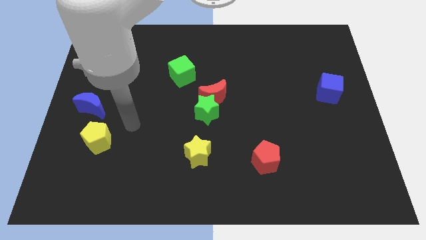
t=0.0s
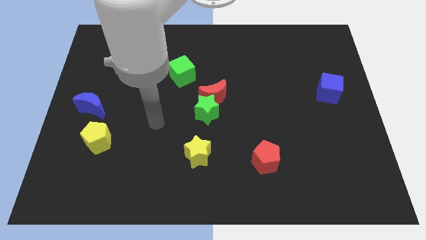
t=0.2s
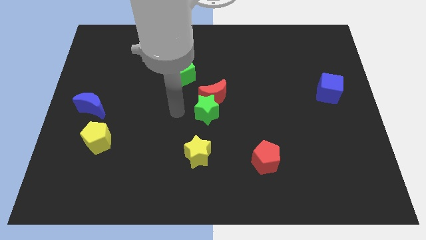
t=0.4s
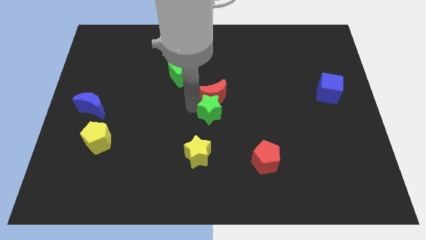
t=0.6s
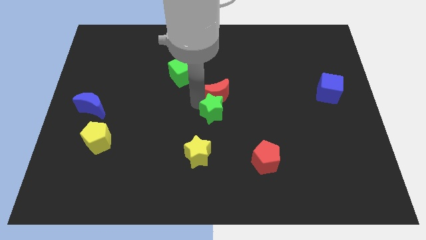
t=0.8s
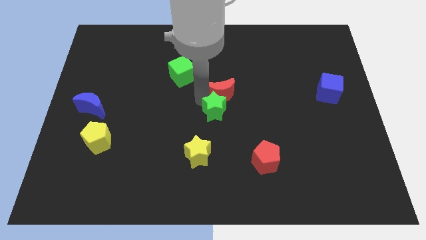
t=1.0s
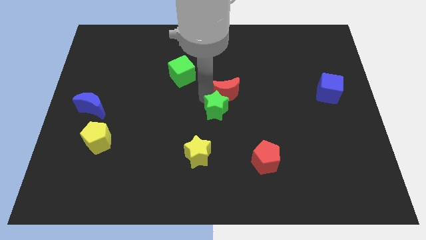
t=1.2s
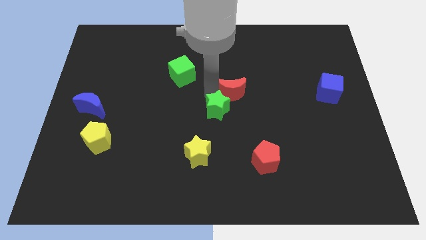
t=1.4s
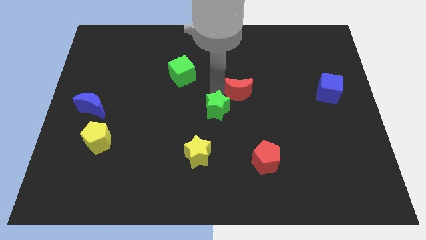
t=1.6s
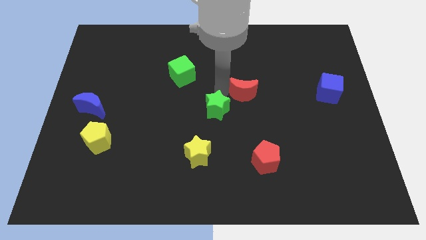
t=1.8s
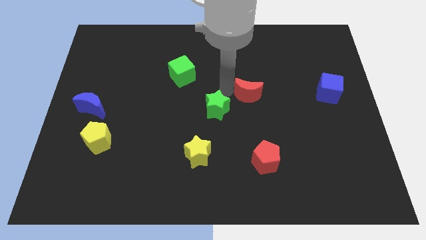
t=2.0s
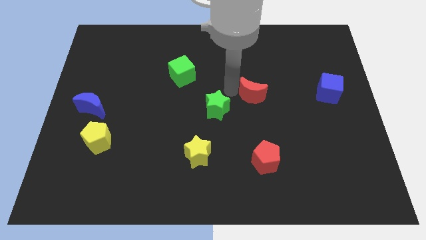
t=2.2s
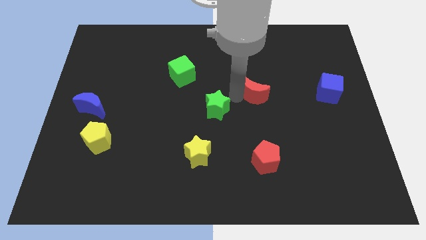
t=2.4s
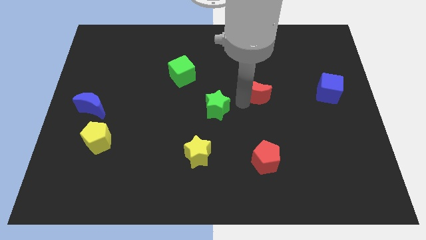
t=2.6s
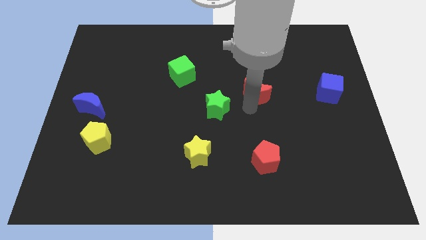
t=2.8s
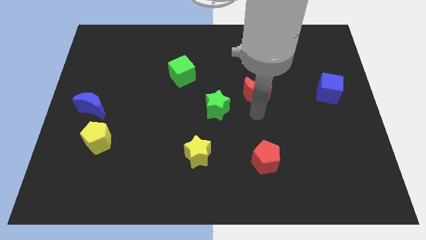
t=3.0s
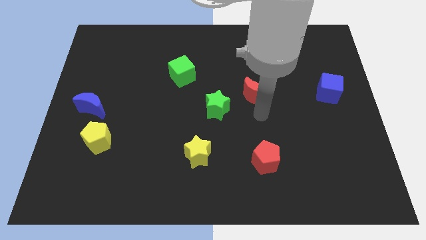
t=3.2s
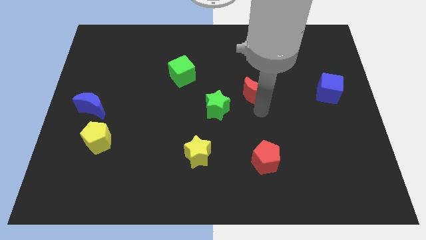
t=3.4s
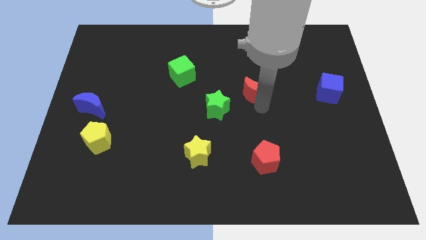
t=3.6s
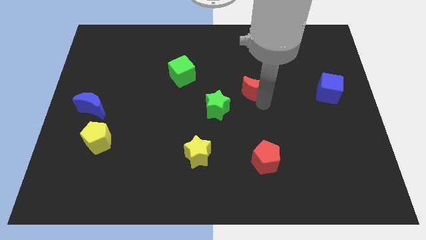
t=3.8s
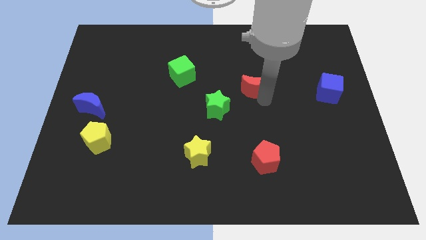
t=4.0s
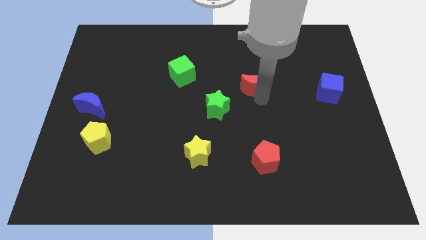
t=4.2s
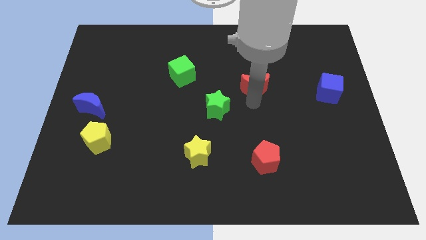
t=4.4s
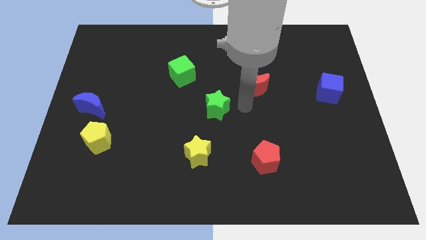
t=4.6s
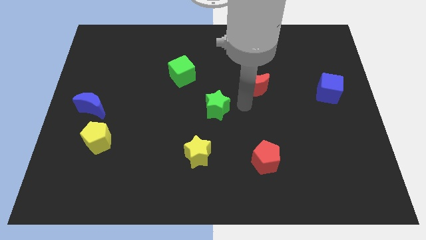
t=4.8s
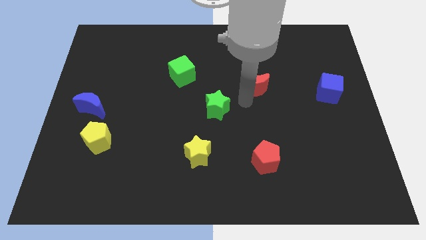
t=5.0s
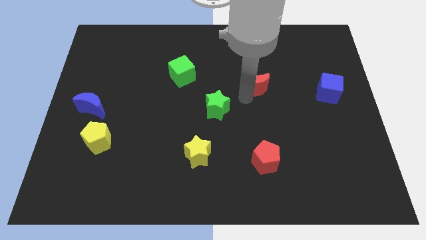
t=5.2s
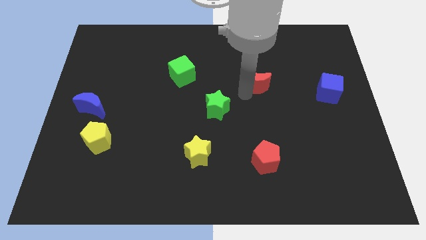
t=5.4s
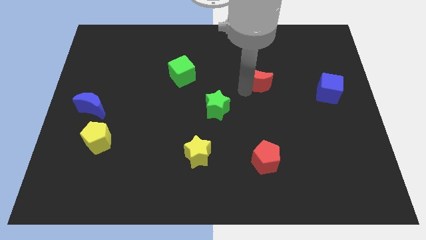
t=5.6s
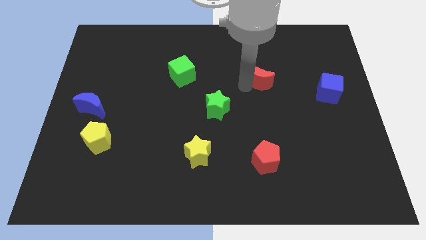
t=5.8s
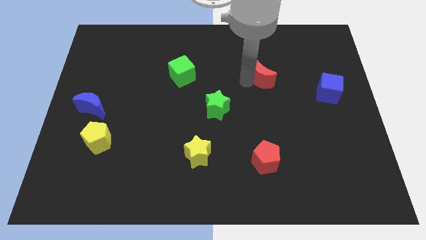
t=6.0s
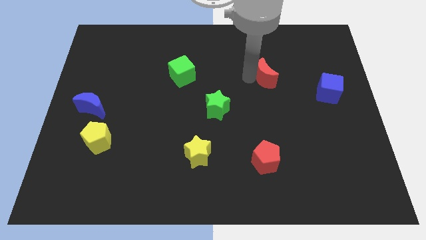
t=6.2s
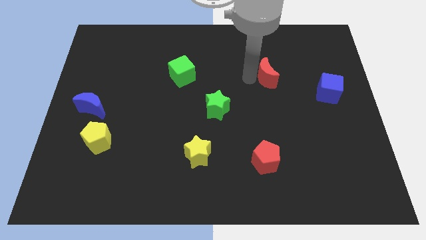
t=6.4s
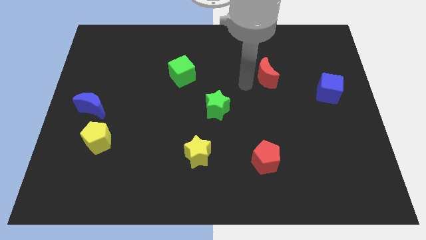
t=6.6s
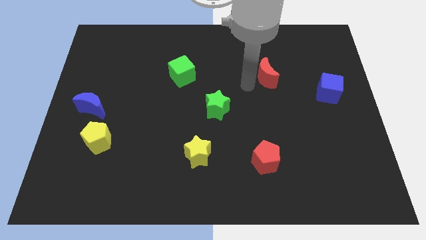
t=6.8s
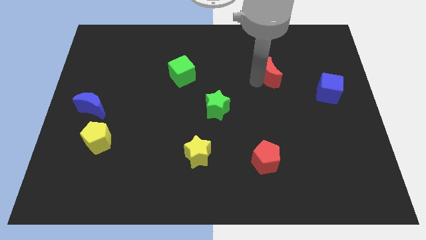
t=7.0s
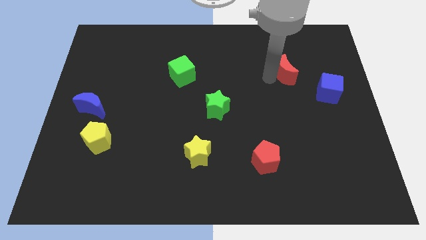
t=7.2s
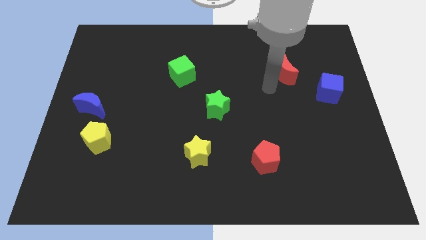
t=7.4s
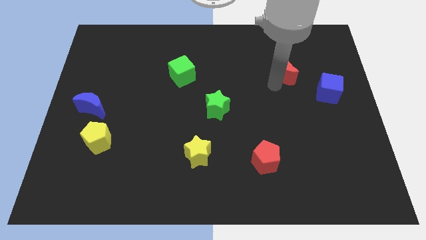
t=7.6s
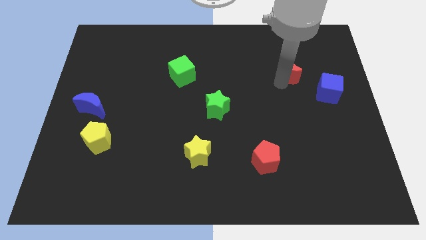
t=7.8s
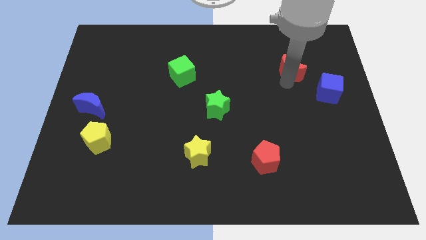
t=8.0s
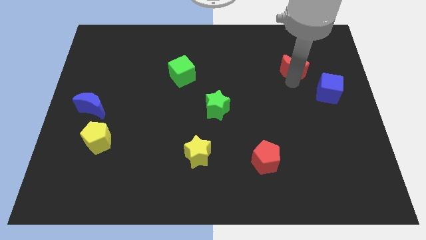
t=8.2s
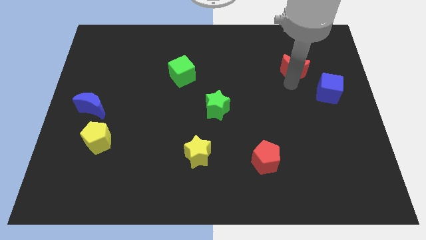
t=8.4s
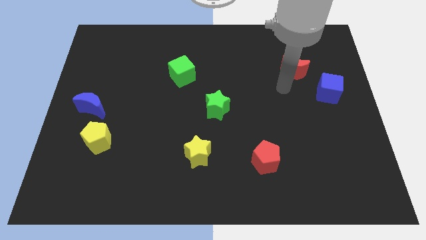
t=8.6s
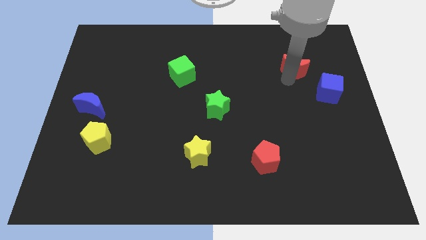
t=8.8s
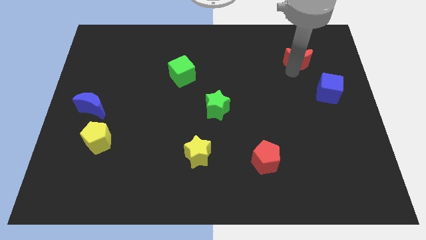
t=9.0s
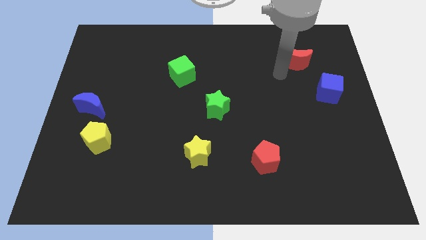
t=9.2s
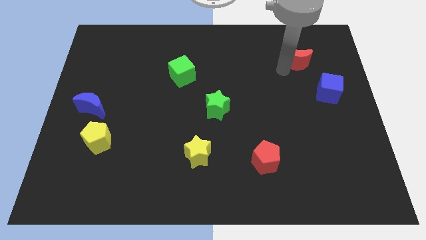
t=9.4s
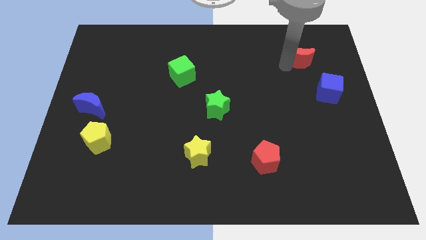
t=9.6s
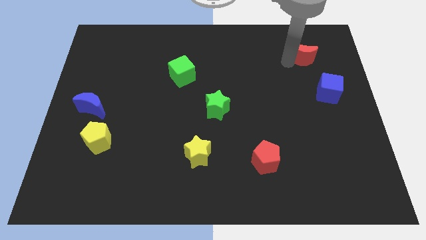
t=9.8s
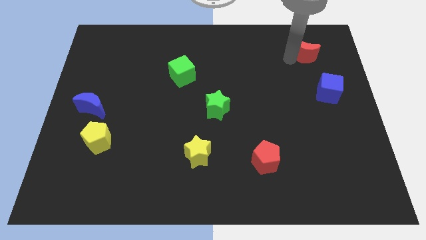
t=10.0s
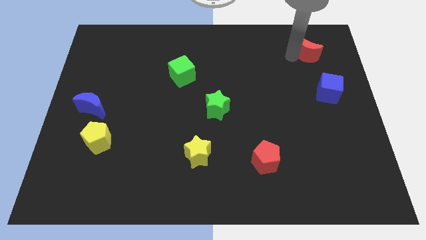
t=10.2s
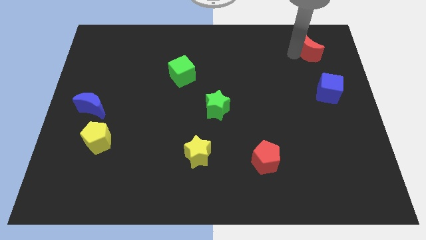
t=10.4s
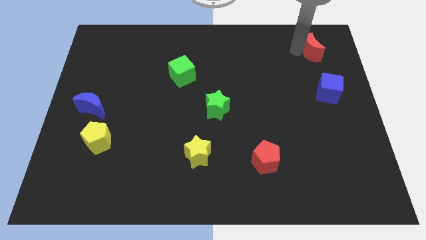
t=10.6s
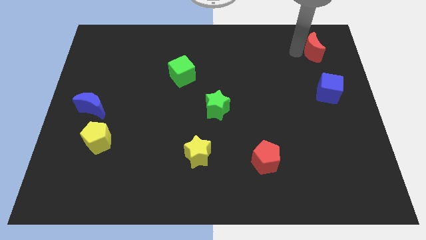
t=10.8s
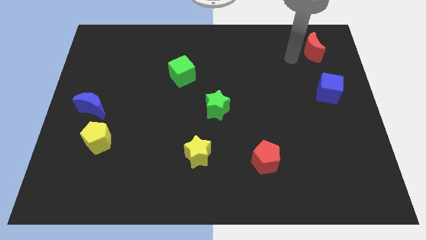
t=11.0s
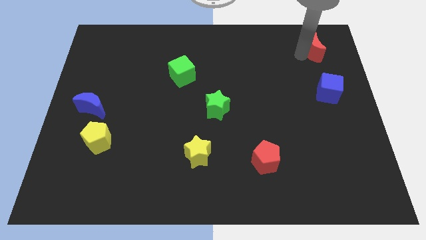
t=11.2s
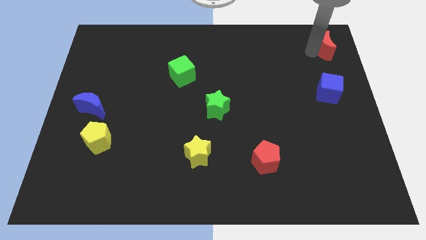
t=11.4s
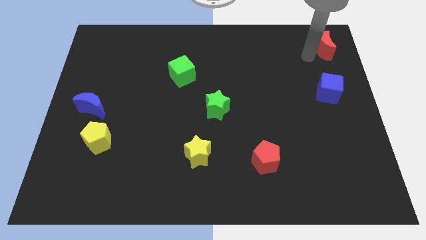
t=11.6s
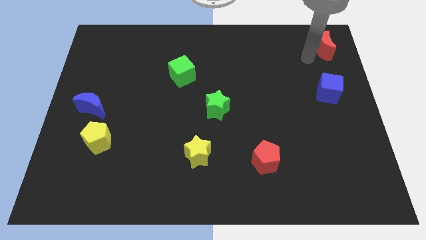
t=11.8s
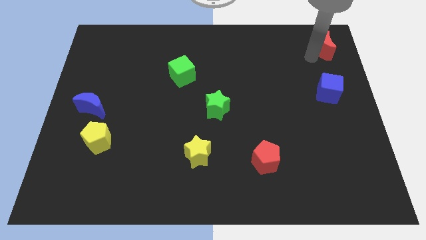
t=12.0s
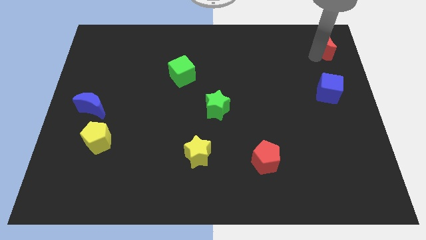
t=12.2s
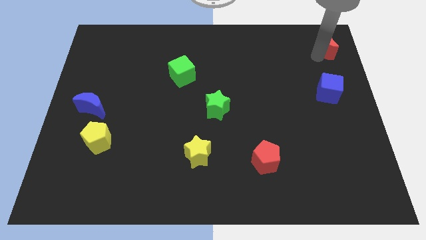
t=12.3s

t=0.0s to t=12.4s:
put the red moon to the top right corner
